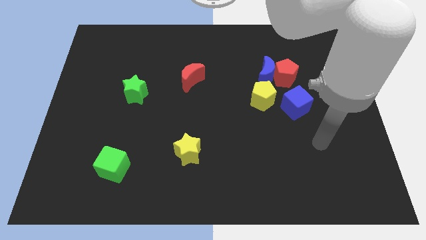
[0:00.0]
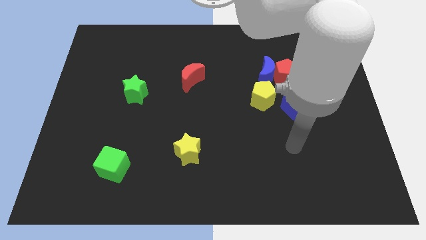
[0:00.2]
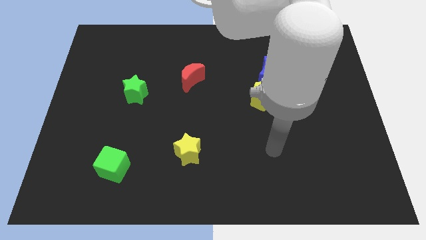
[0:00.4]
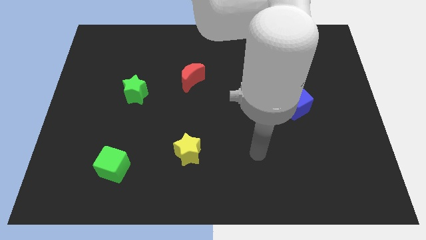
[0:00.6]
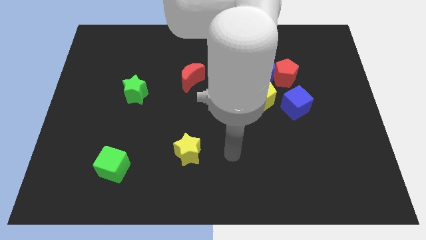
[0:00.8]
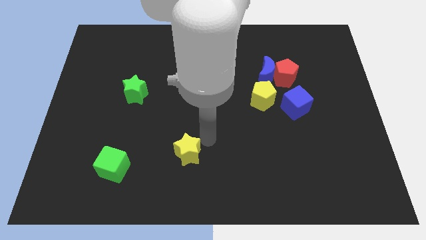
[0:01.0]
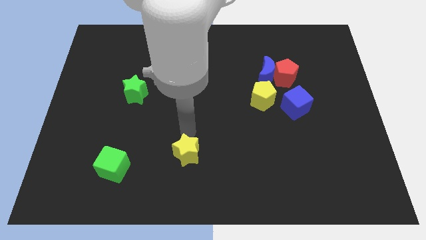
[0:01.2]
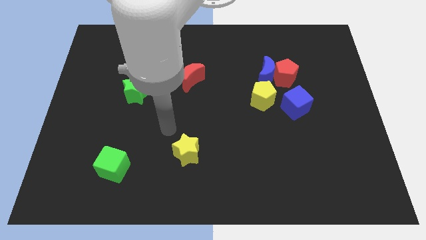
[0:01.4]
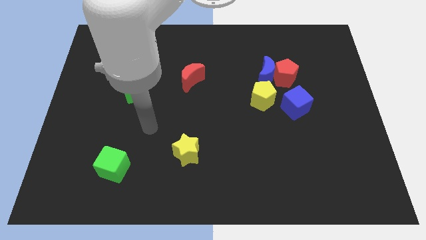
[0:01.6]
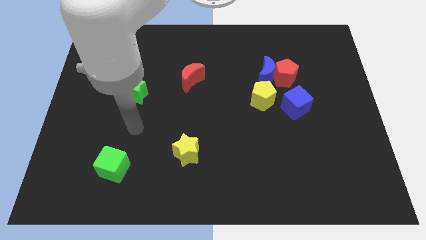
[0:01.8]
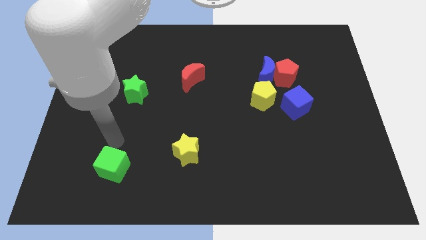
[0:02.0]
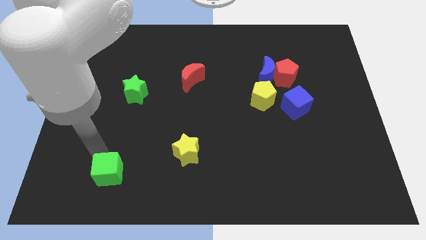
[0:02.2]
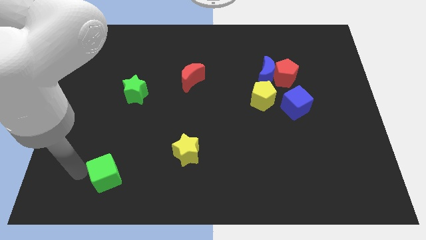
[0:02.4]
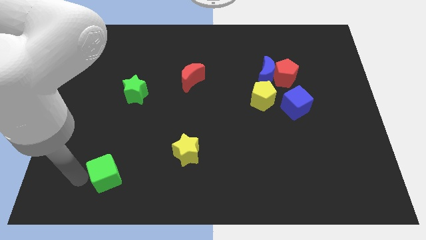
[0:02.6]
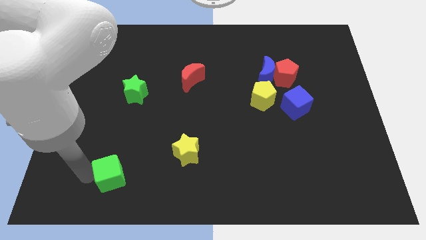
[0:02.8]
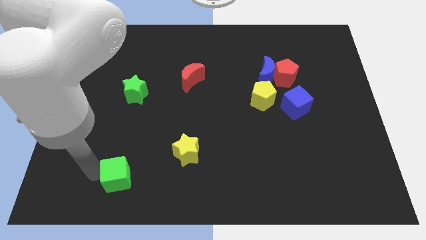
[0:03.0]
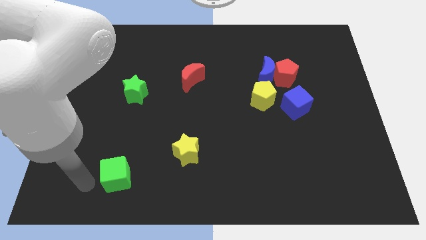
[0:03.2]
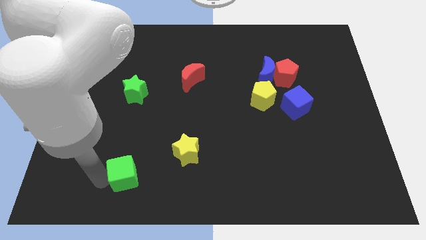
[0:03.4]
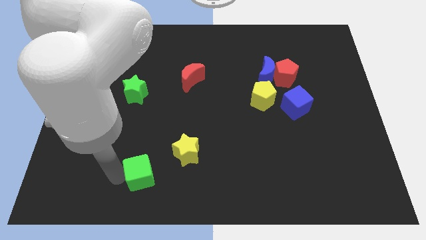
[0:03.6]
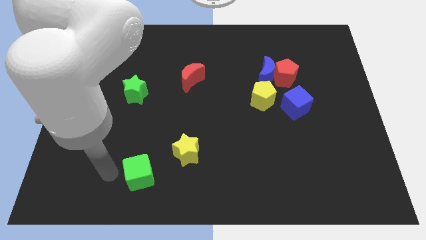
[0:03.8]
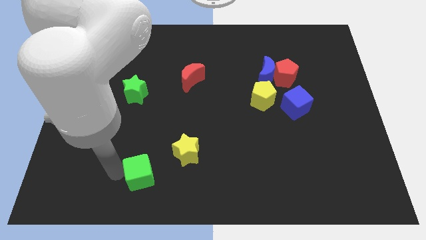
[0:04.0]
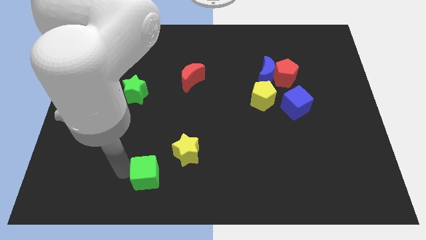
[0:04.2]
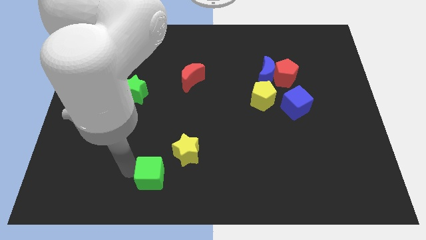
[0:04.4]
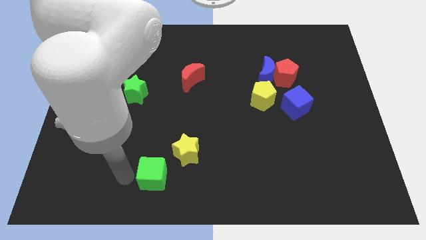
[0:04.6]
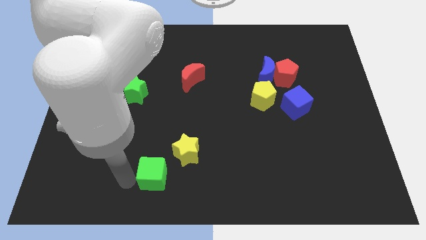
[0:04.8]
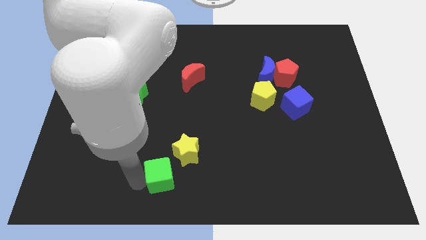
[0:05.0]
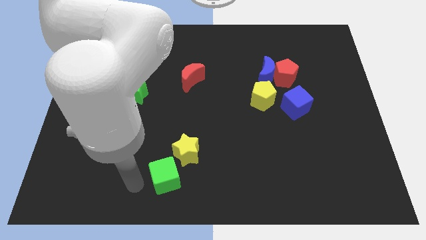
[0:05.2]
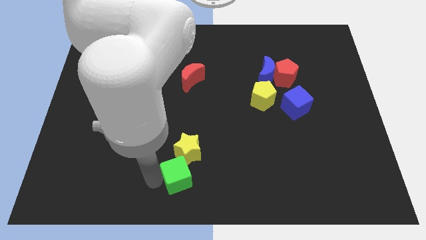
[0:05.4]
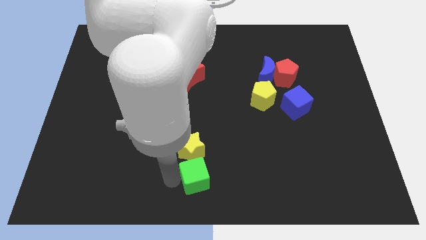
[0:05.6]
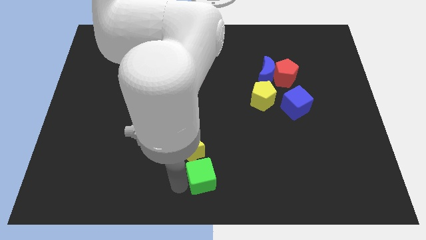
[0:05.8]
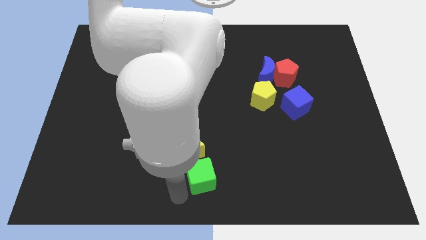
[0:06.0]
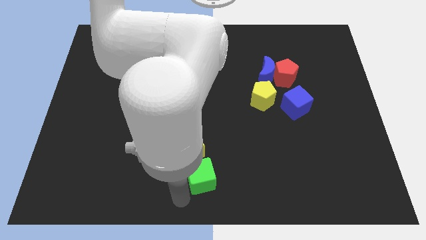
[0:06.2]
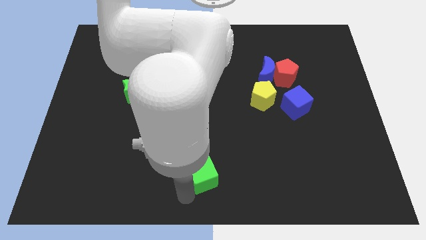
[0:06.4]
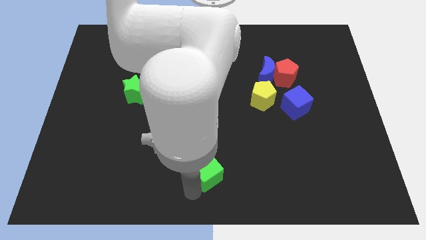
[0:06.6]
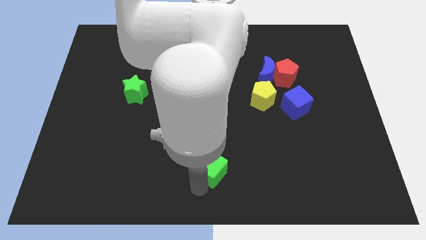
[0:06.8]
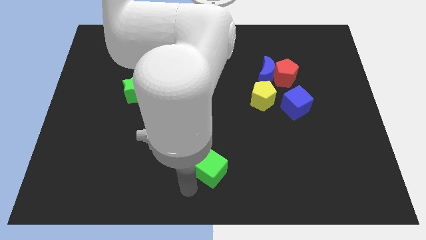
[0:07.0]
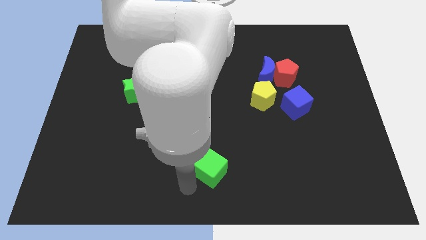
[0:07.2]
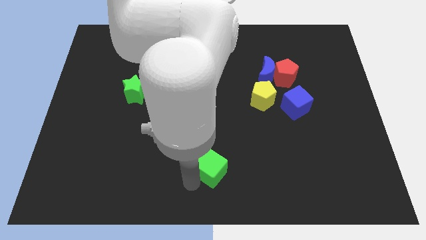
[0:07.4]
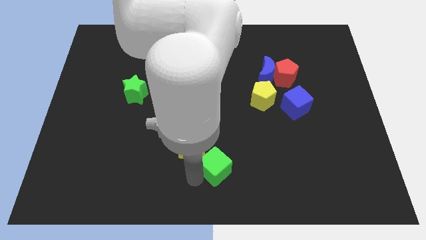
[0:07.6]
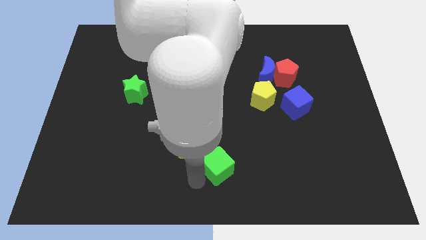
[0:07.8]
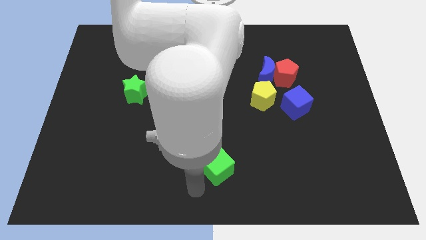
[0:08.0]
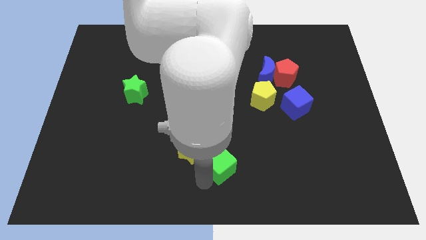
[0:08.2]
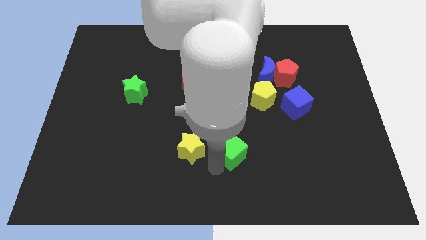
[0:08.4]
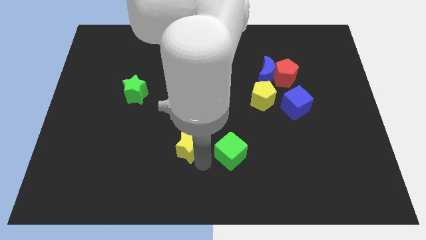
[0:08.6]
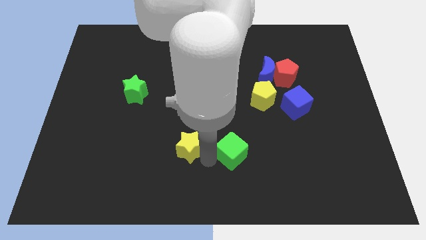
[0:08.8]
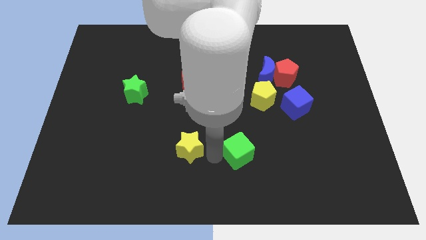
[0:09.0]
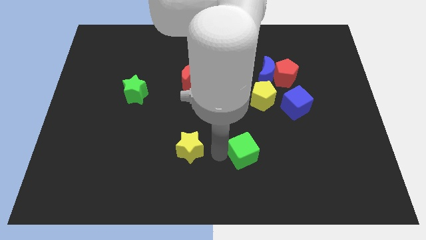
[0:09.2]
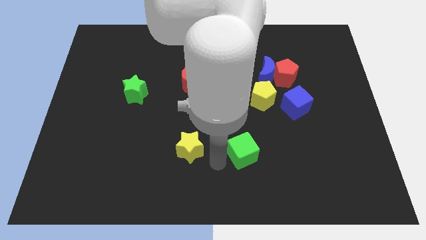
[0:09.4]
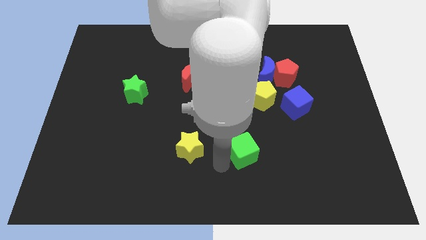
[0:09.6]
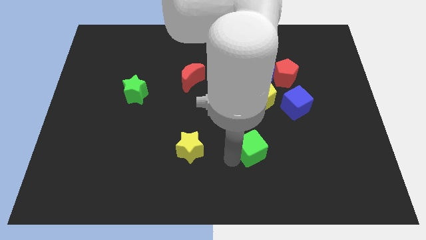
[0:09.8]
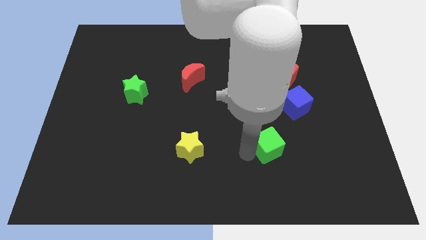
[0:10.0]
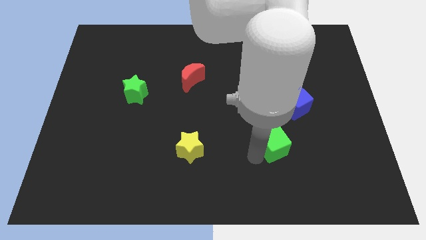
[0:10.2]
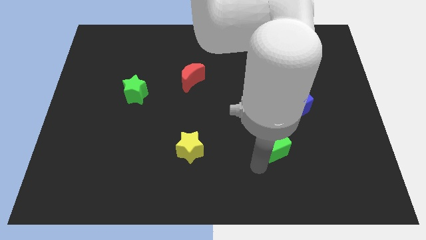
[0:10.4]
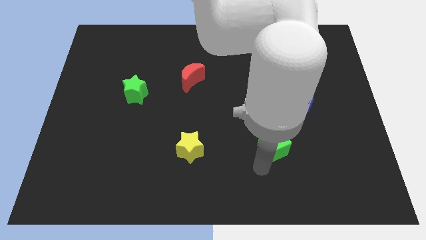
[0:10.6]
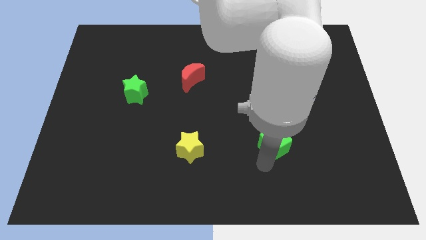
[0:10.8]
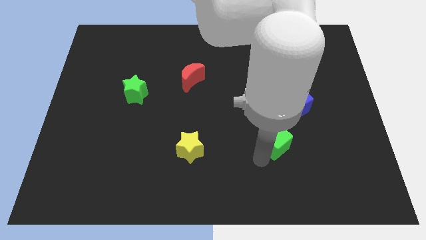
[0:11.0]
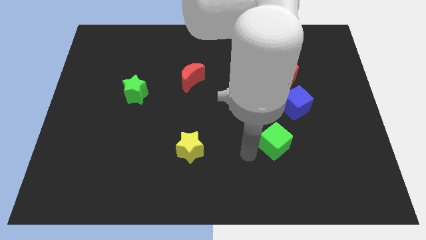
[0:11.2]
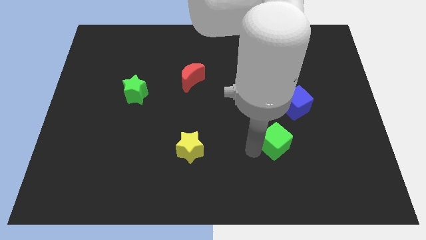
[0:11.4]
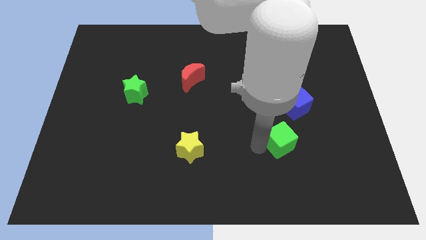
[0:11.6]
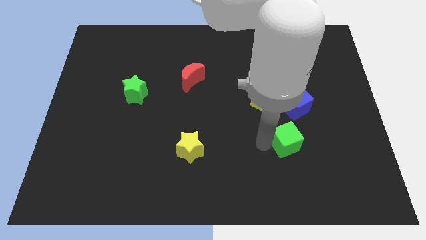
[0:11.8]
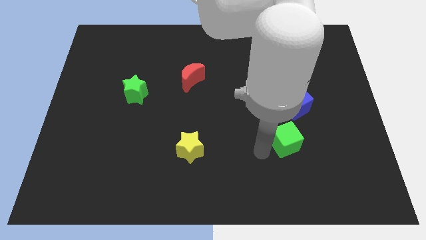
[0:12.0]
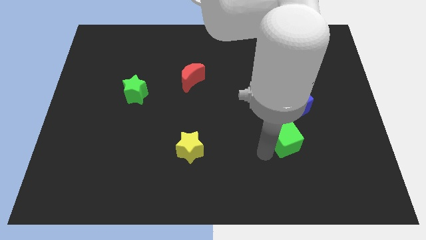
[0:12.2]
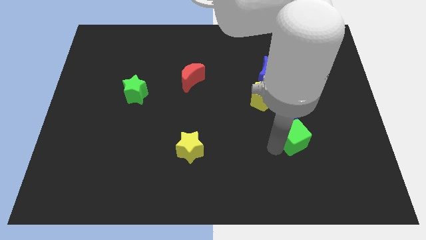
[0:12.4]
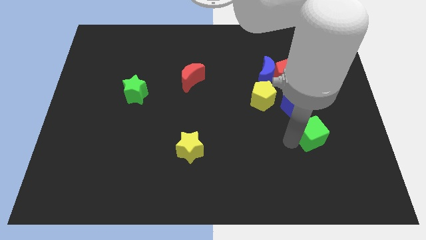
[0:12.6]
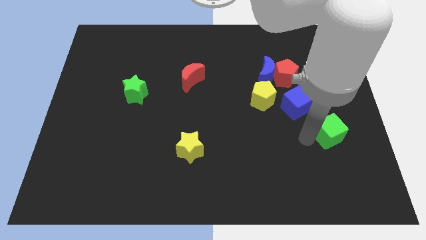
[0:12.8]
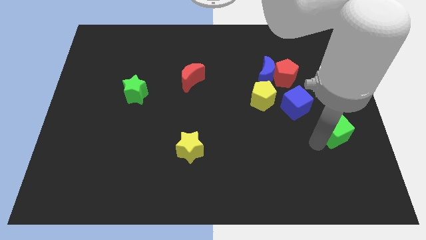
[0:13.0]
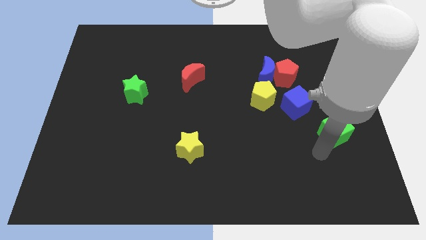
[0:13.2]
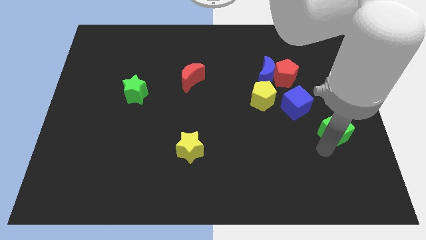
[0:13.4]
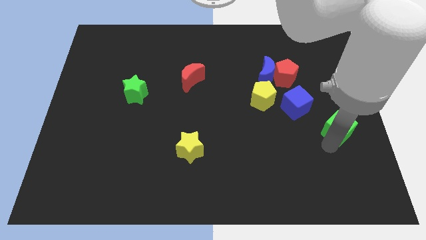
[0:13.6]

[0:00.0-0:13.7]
put the green cube to the right side

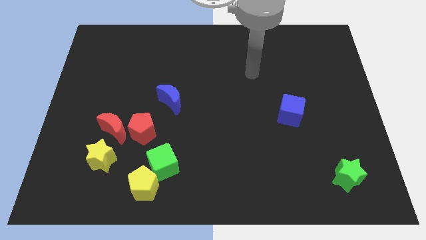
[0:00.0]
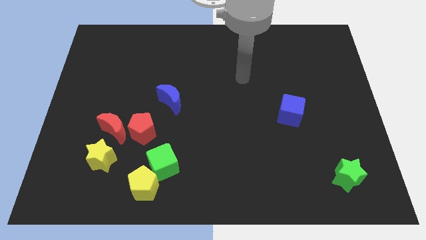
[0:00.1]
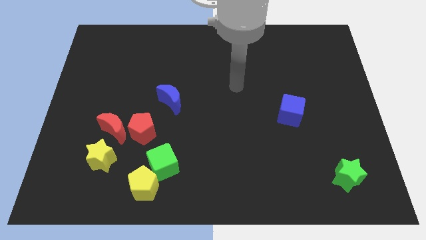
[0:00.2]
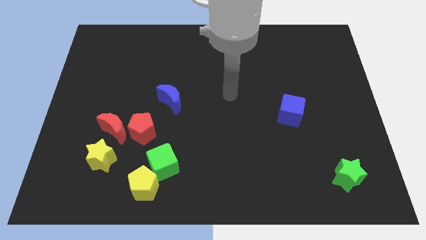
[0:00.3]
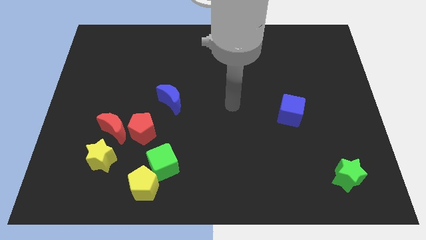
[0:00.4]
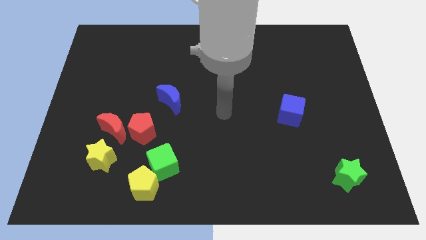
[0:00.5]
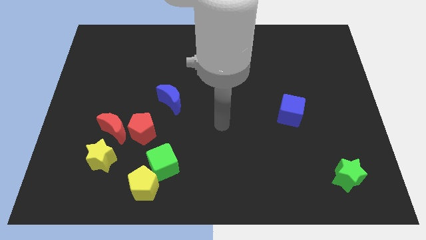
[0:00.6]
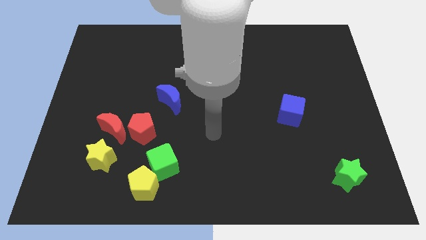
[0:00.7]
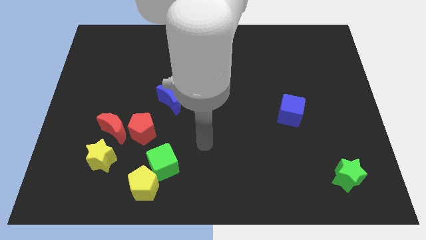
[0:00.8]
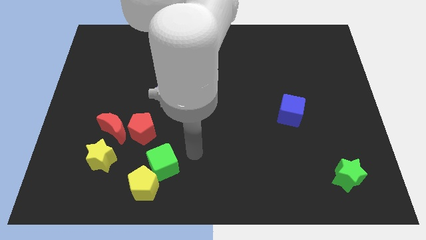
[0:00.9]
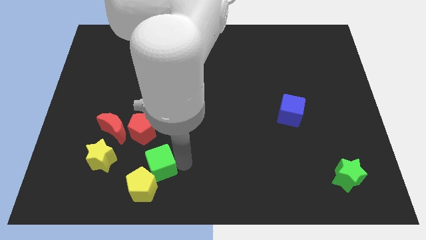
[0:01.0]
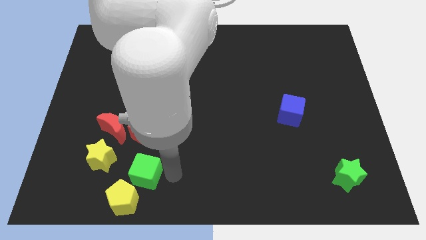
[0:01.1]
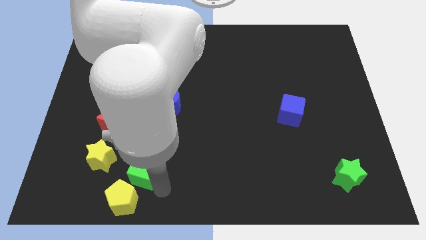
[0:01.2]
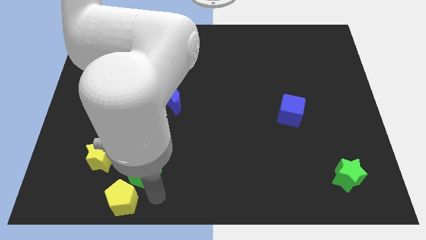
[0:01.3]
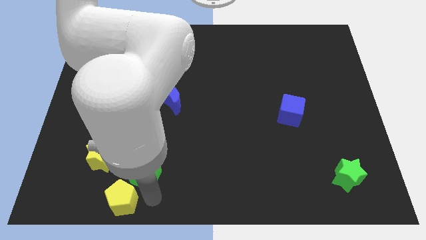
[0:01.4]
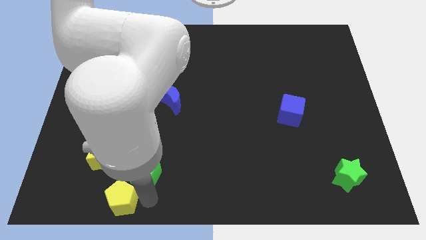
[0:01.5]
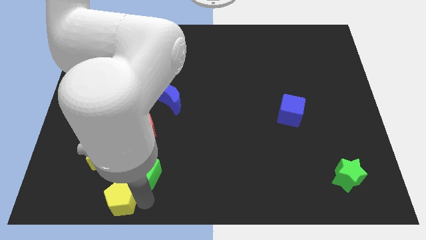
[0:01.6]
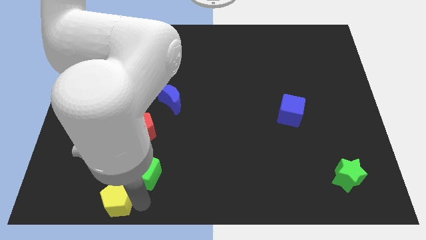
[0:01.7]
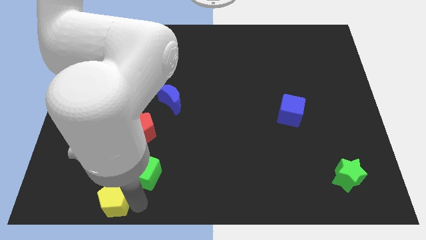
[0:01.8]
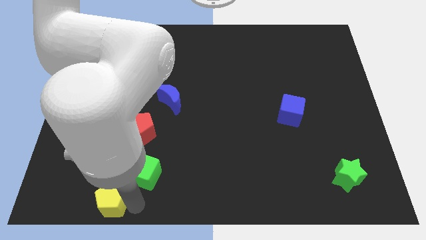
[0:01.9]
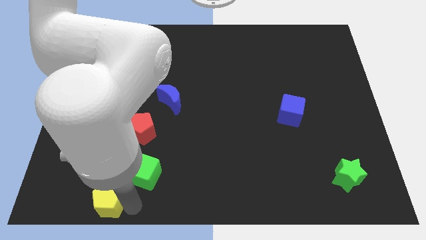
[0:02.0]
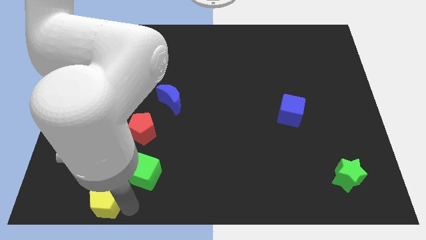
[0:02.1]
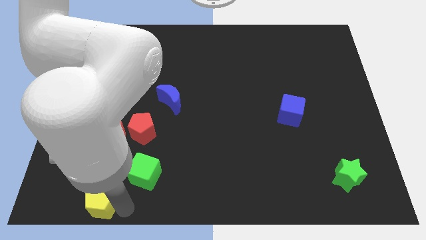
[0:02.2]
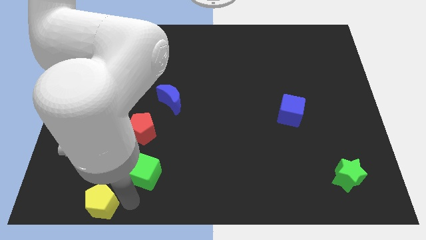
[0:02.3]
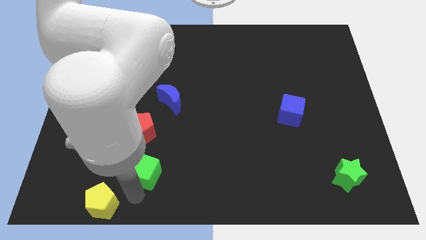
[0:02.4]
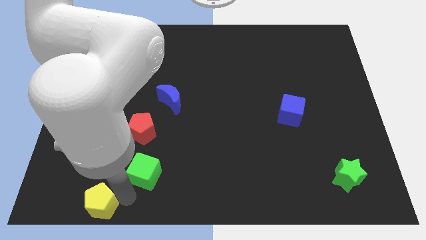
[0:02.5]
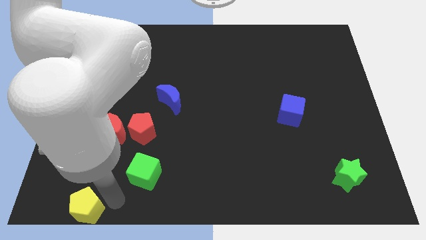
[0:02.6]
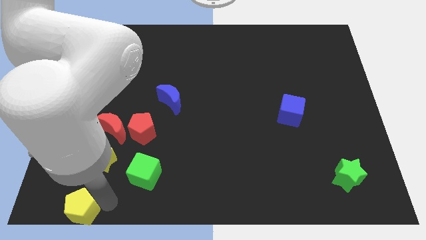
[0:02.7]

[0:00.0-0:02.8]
slide the yellow pentagon to the bottom left
